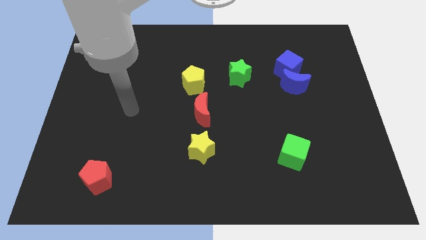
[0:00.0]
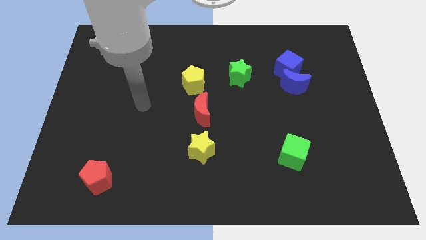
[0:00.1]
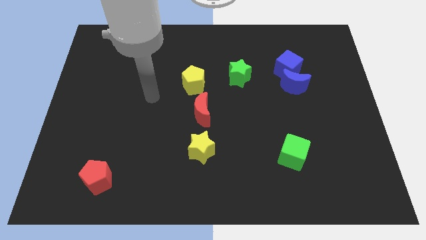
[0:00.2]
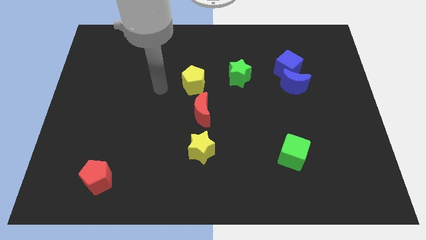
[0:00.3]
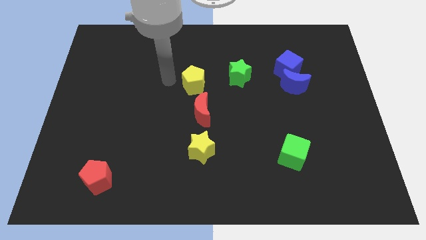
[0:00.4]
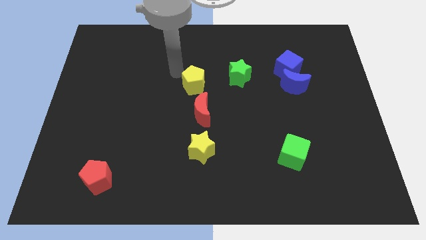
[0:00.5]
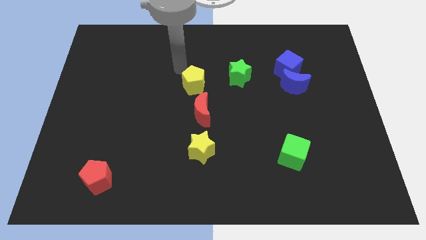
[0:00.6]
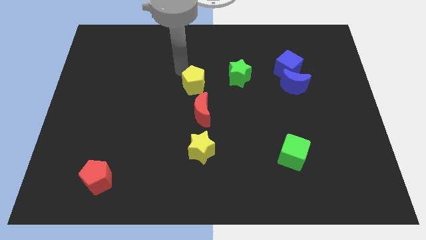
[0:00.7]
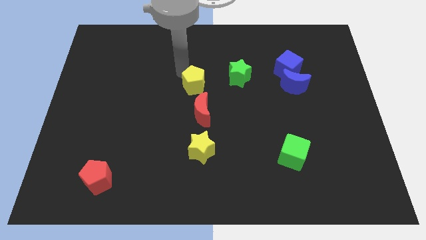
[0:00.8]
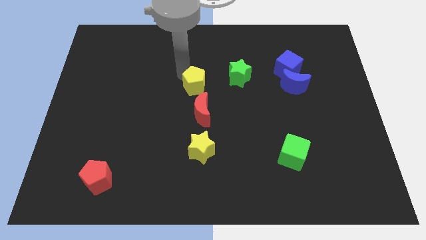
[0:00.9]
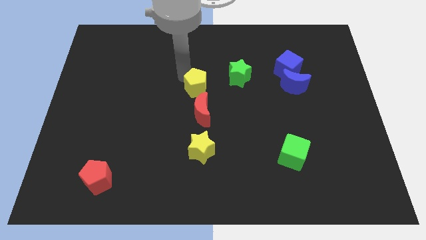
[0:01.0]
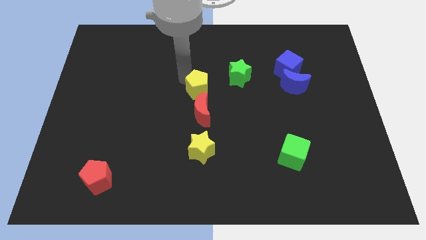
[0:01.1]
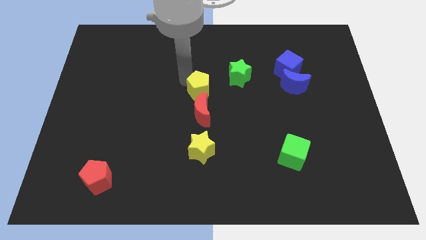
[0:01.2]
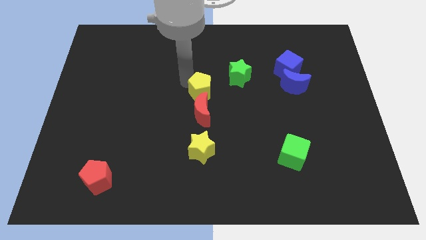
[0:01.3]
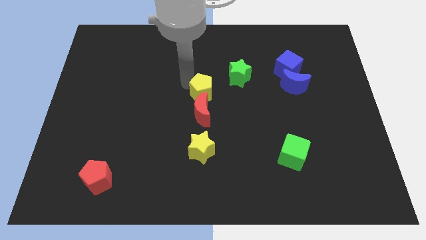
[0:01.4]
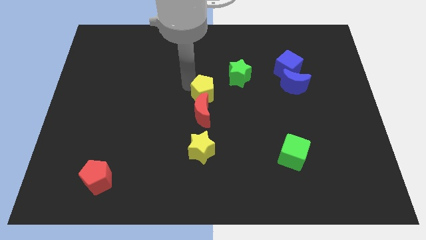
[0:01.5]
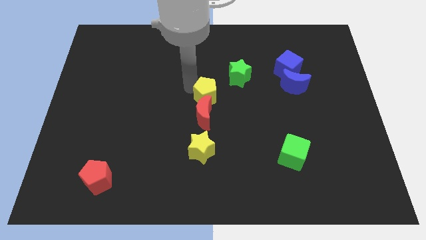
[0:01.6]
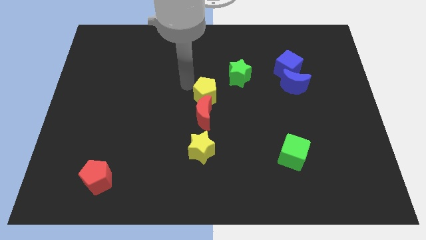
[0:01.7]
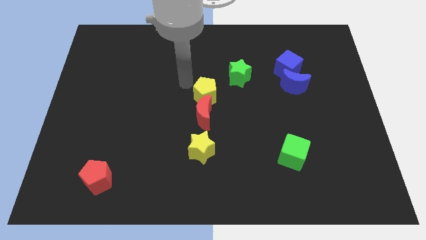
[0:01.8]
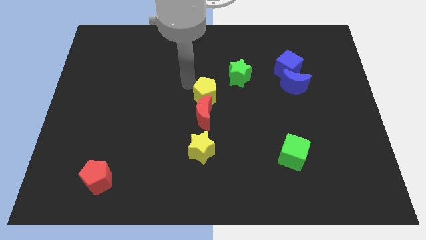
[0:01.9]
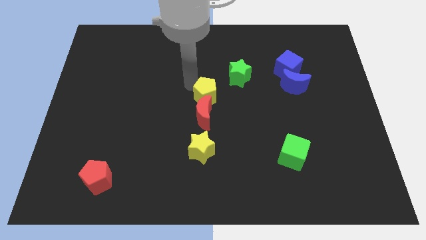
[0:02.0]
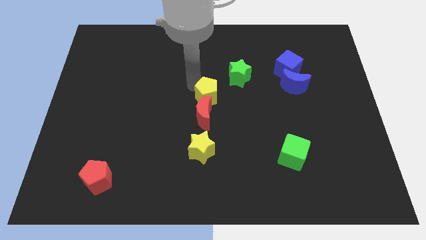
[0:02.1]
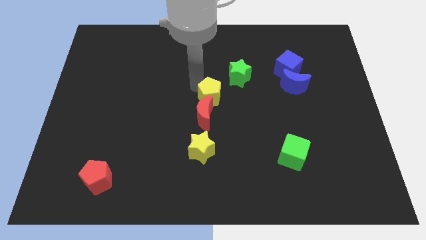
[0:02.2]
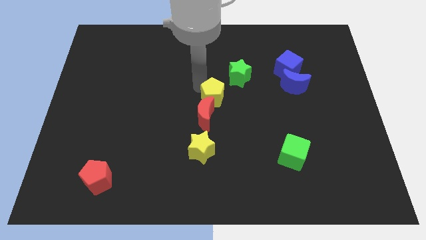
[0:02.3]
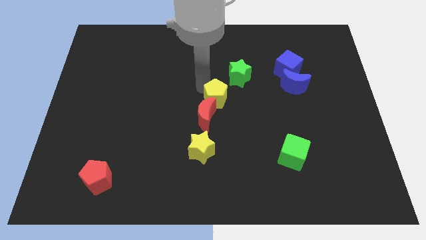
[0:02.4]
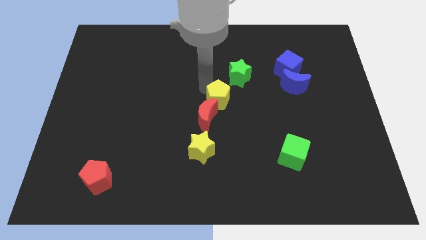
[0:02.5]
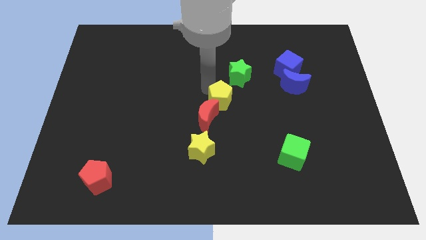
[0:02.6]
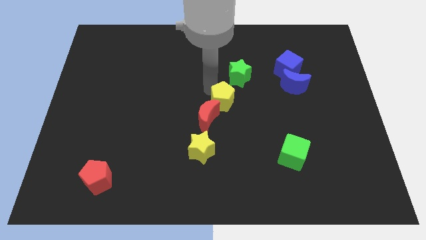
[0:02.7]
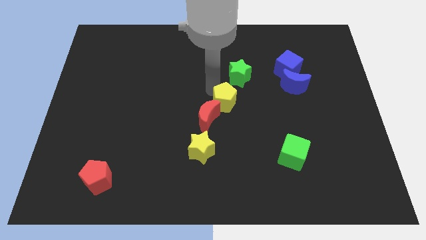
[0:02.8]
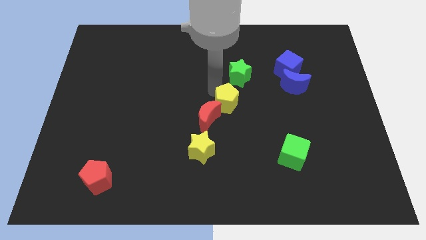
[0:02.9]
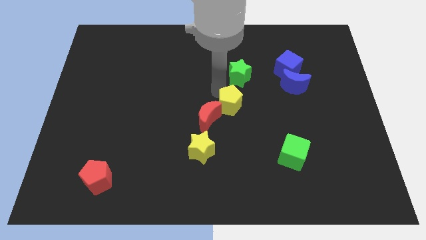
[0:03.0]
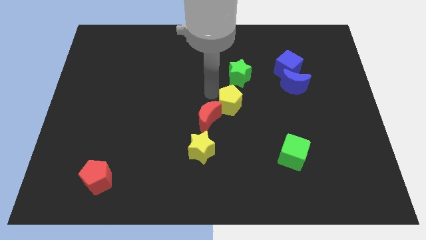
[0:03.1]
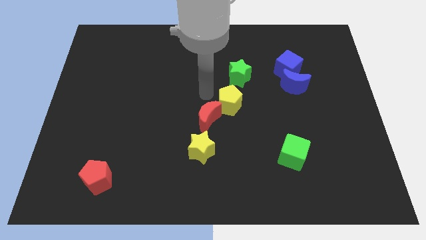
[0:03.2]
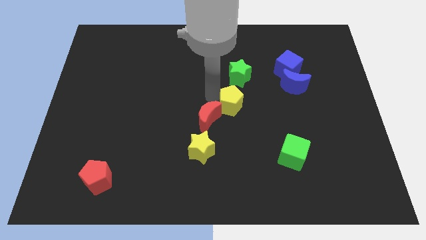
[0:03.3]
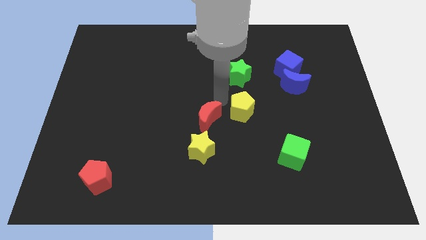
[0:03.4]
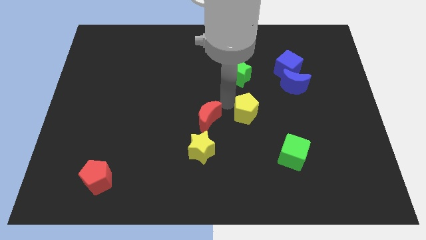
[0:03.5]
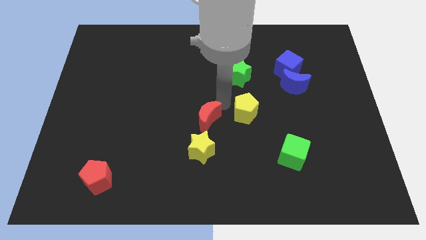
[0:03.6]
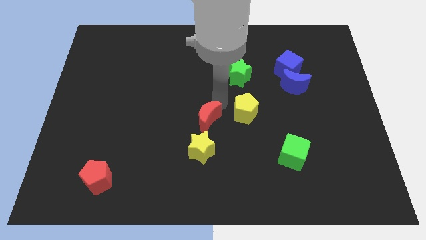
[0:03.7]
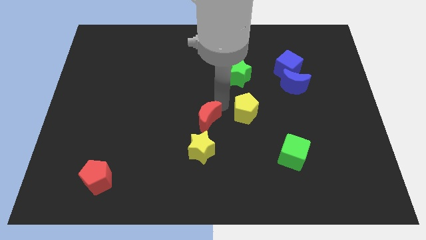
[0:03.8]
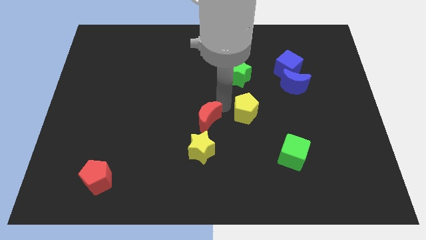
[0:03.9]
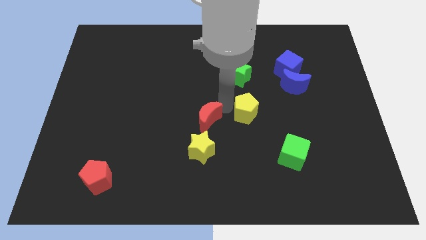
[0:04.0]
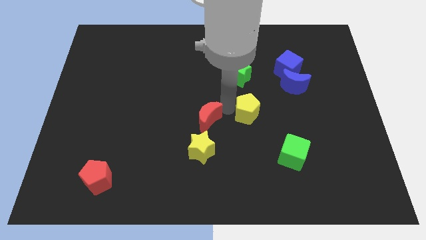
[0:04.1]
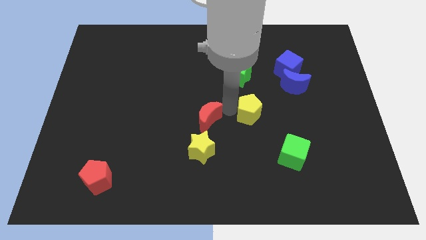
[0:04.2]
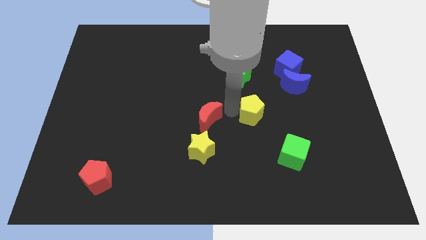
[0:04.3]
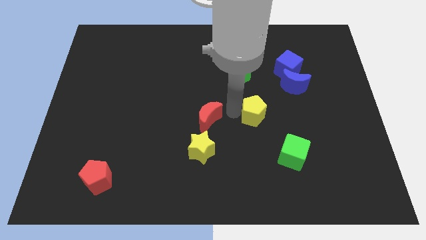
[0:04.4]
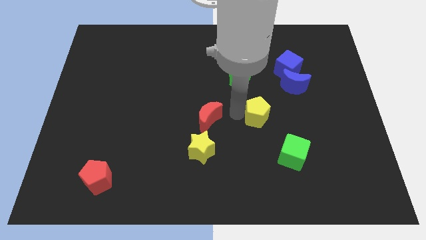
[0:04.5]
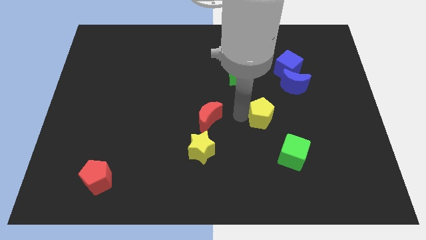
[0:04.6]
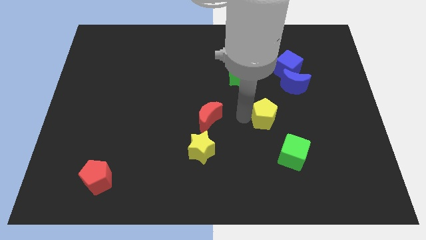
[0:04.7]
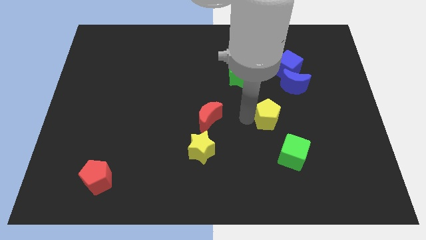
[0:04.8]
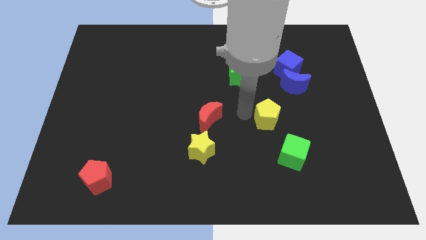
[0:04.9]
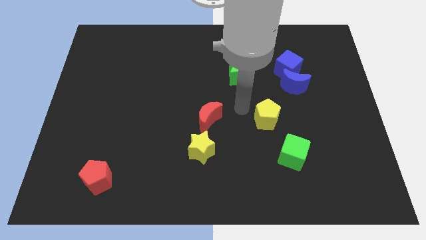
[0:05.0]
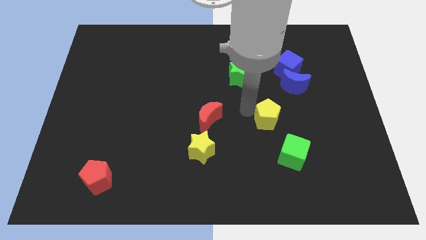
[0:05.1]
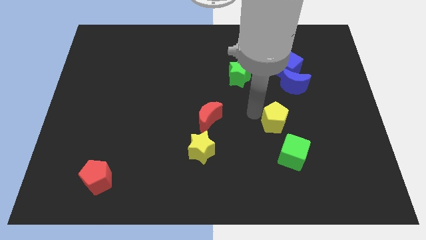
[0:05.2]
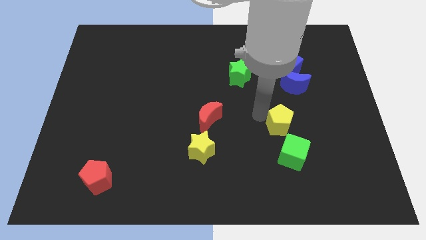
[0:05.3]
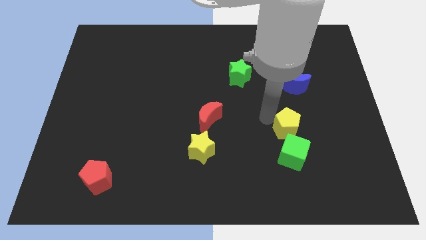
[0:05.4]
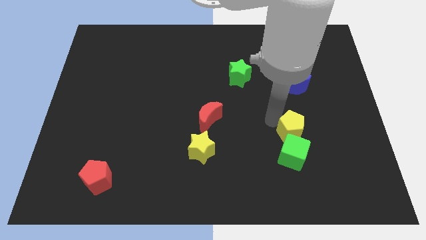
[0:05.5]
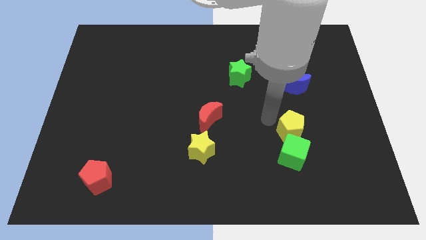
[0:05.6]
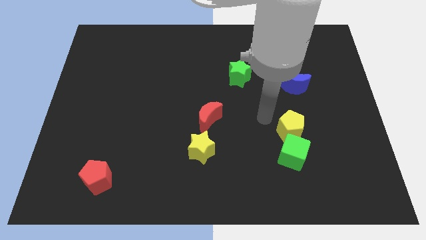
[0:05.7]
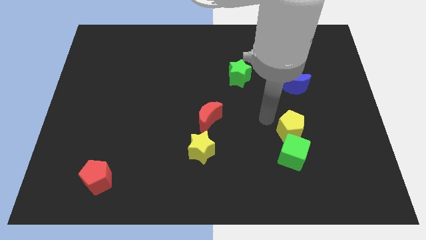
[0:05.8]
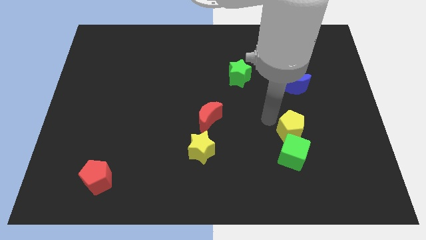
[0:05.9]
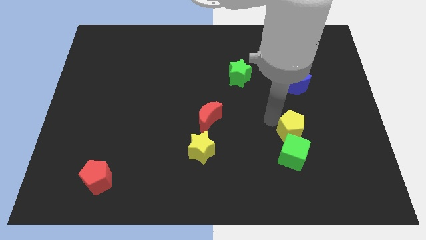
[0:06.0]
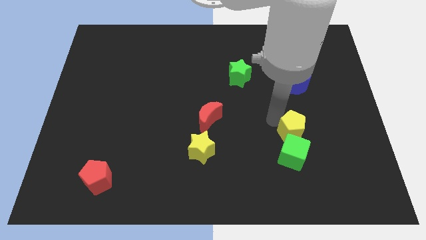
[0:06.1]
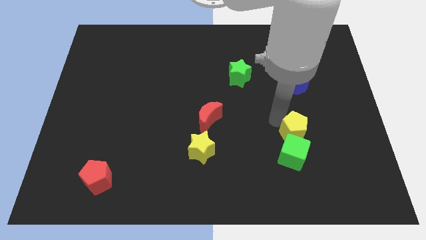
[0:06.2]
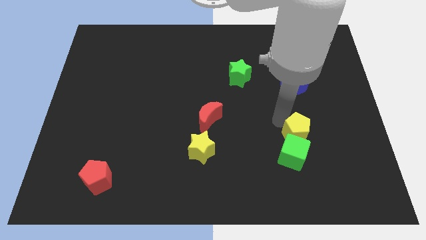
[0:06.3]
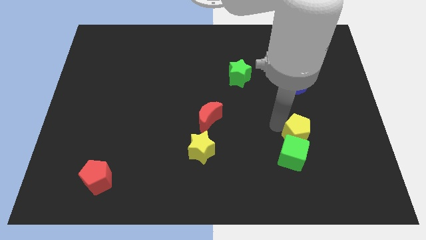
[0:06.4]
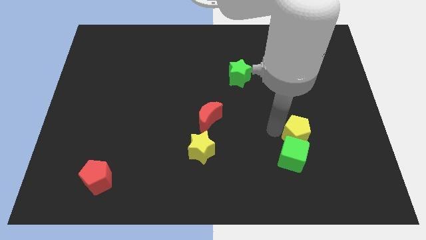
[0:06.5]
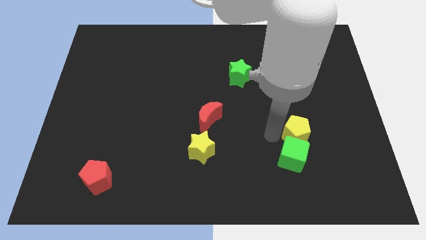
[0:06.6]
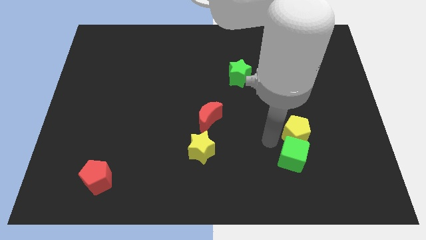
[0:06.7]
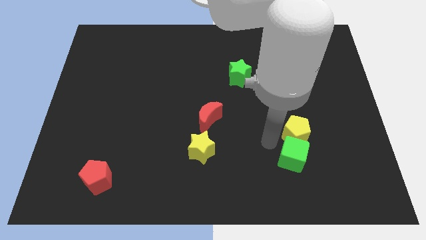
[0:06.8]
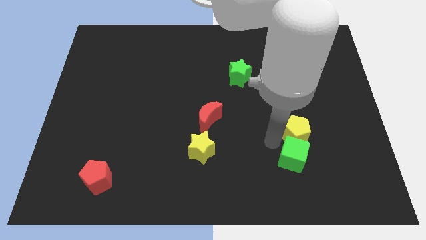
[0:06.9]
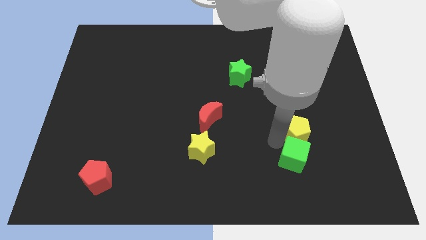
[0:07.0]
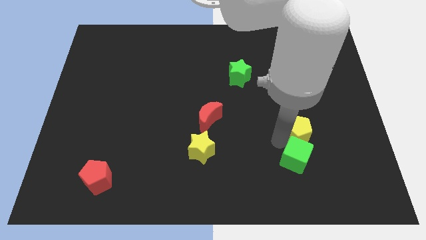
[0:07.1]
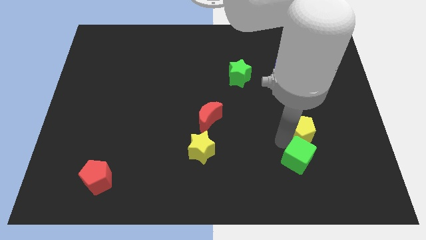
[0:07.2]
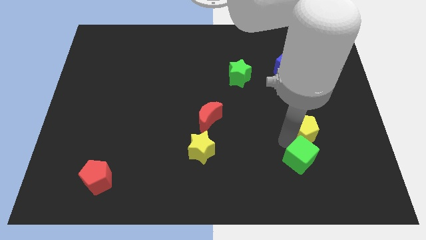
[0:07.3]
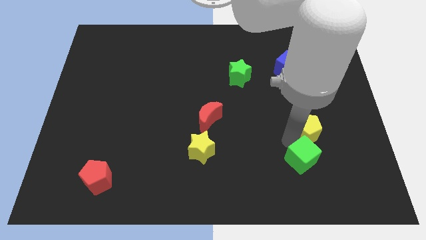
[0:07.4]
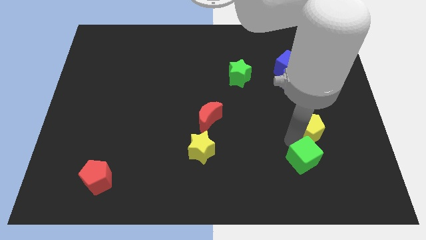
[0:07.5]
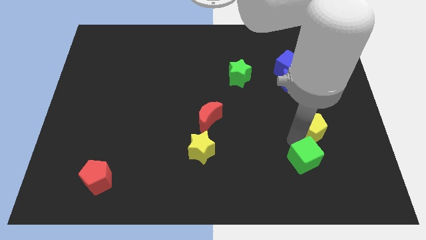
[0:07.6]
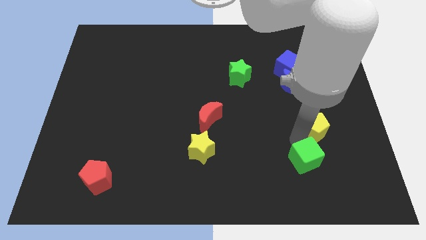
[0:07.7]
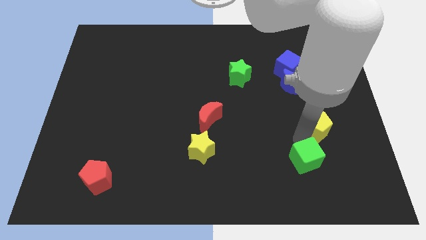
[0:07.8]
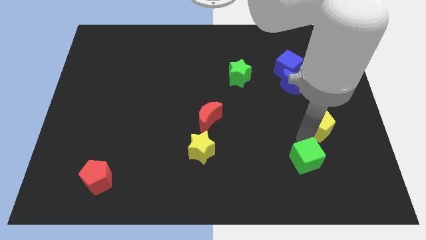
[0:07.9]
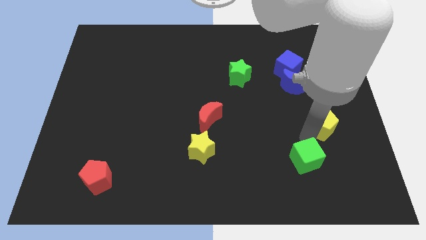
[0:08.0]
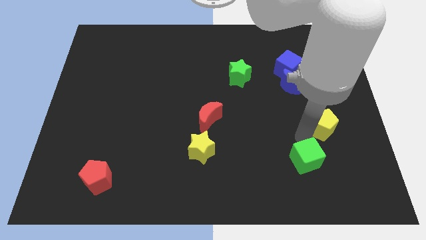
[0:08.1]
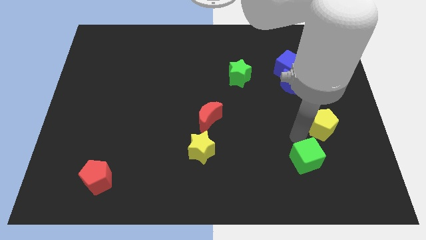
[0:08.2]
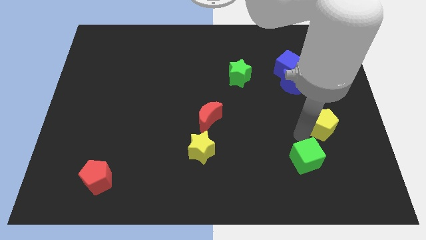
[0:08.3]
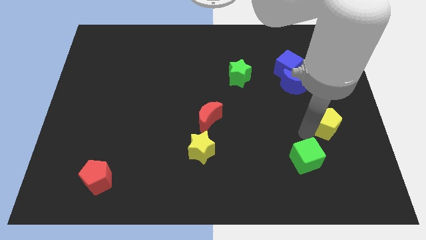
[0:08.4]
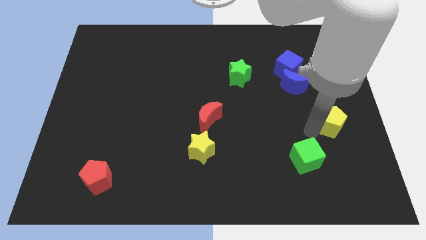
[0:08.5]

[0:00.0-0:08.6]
move the yellow pentagon to the center right
